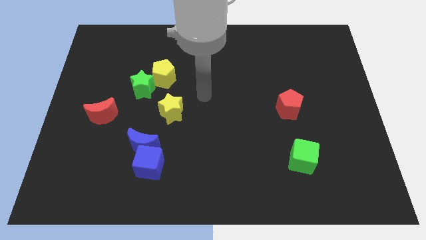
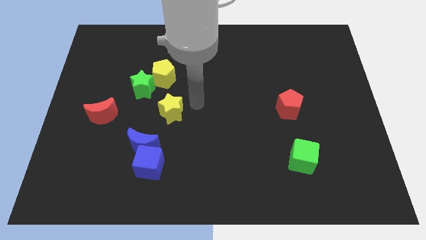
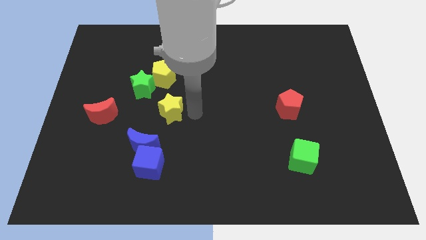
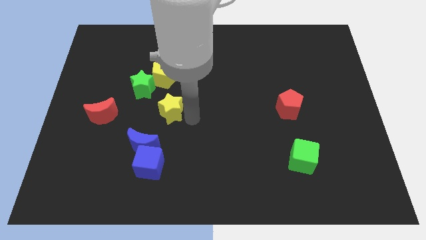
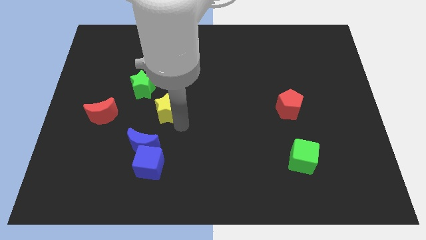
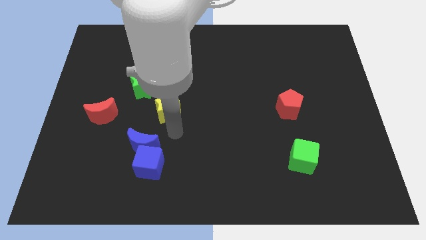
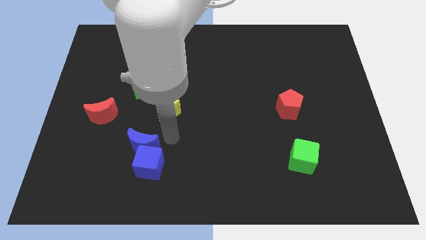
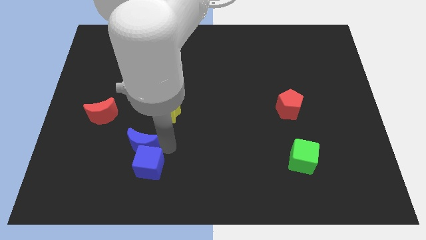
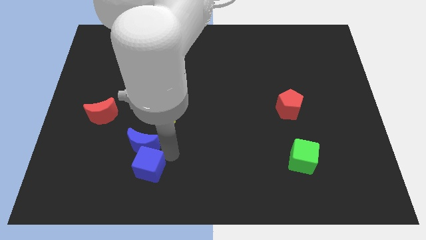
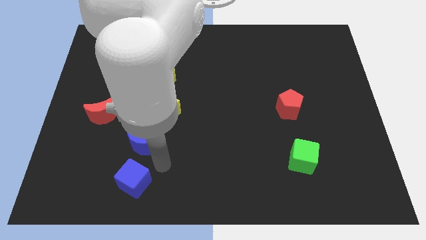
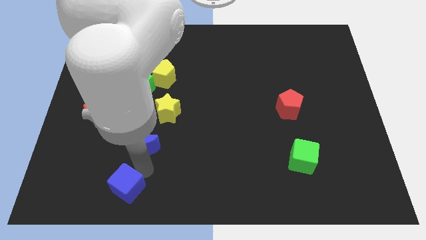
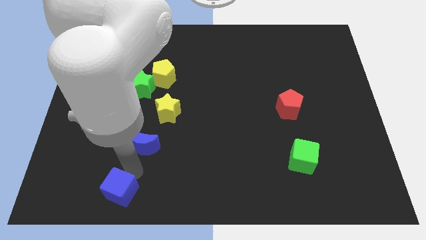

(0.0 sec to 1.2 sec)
move the blue moon away from the blue cube

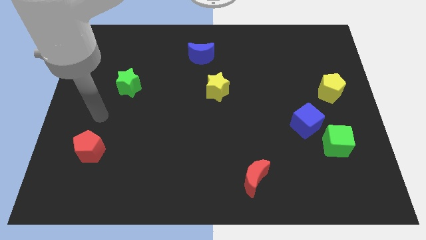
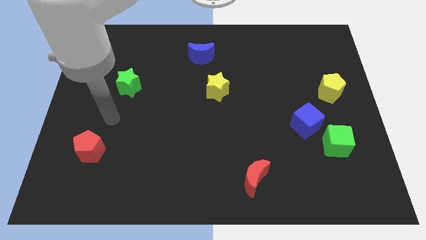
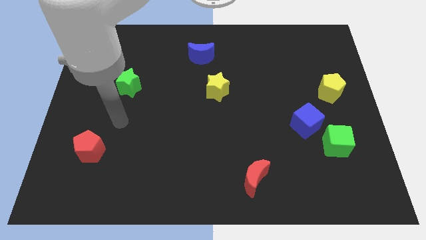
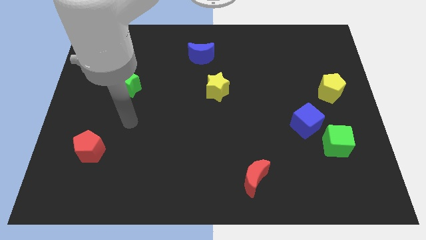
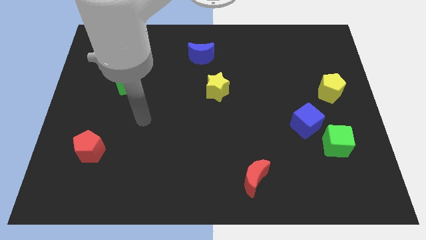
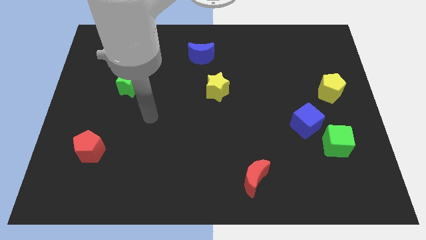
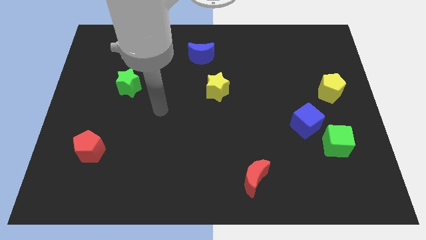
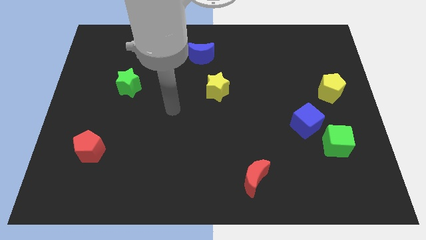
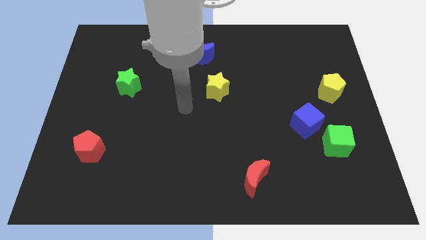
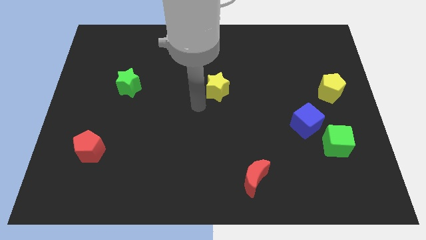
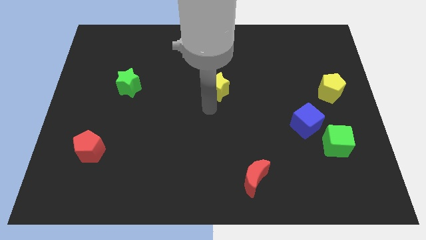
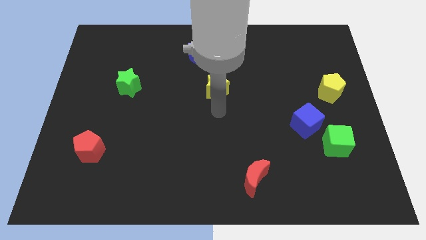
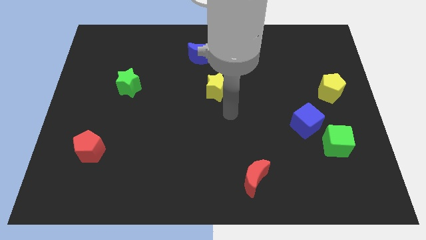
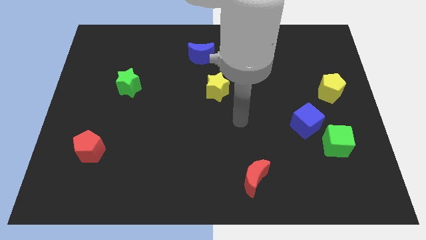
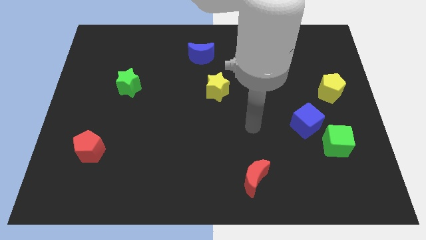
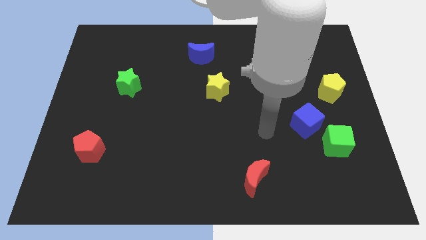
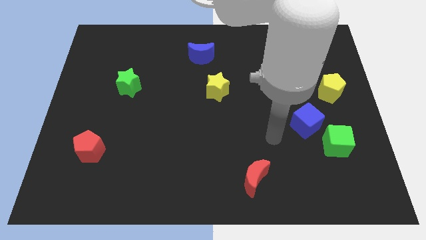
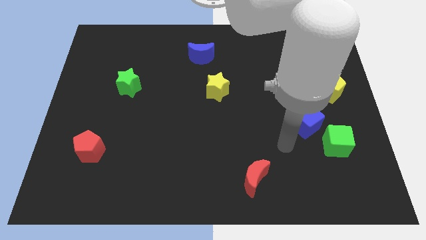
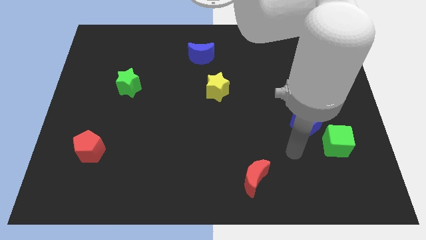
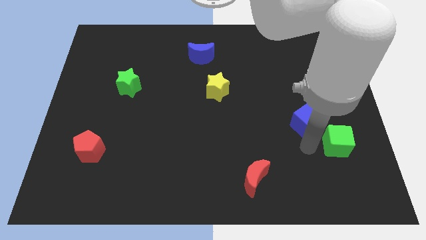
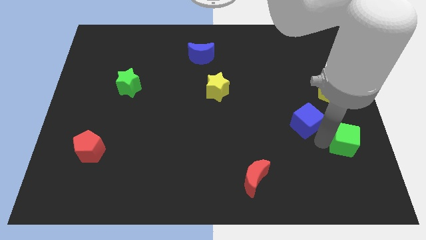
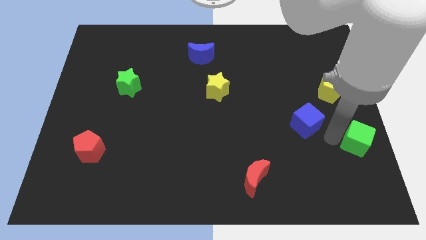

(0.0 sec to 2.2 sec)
separate the blue cube from the green cube

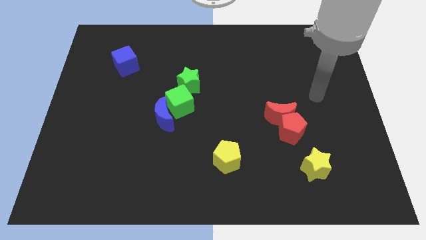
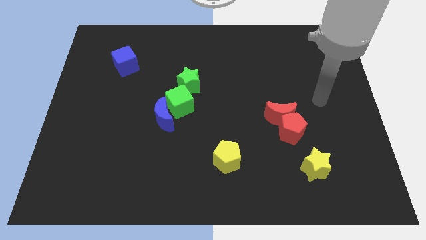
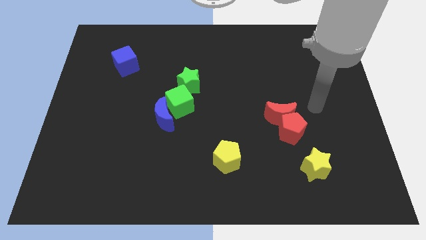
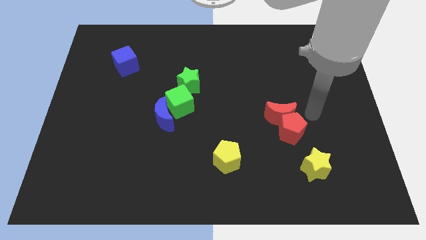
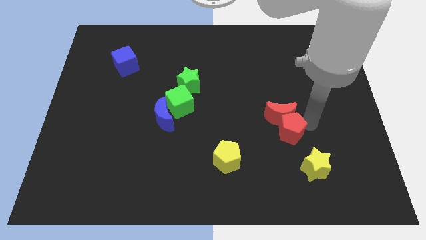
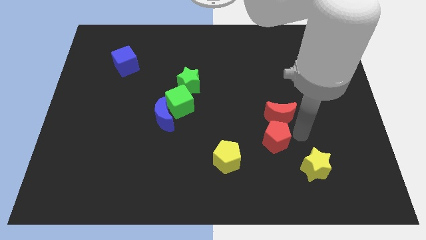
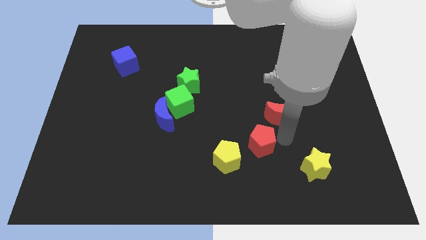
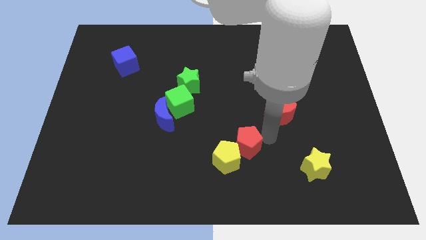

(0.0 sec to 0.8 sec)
move the red moon away from the red pentagon

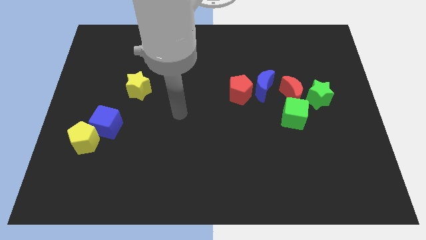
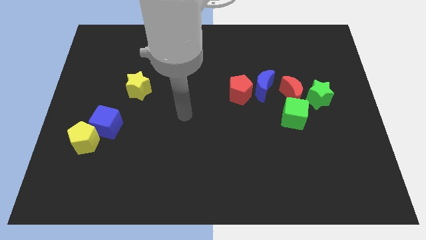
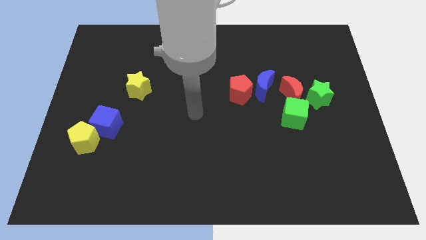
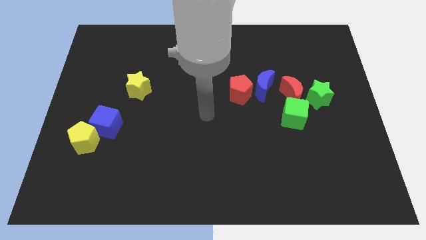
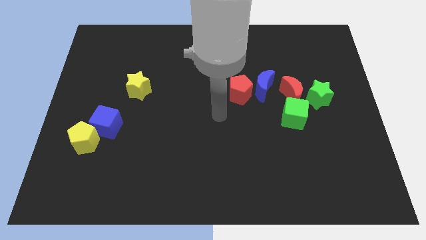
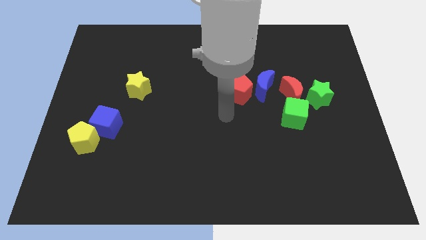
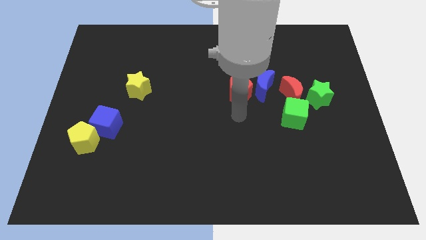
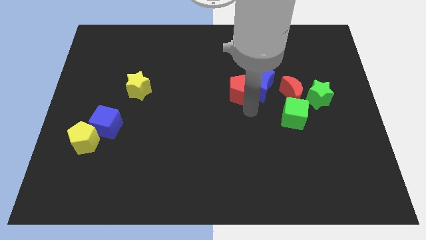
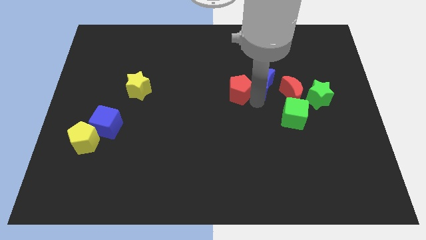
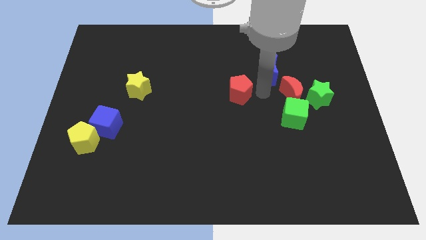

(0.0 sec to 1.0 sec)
separate the red pentagon from the blue moon

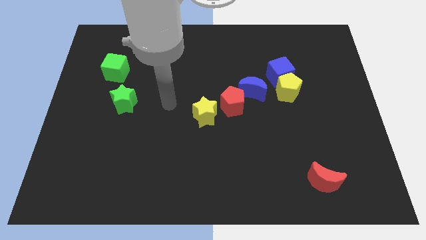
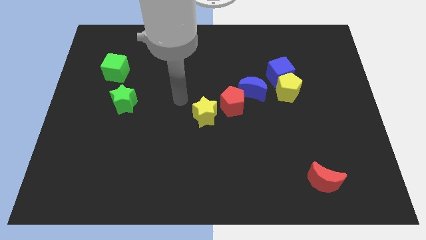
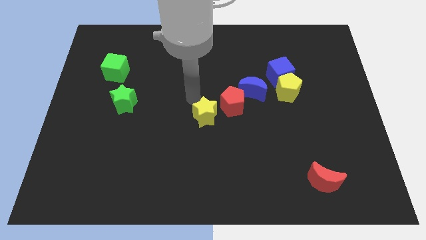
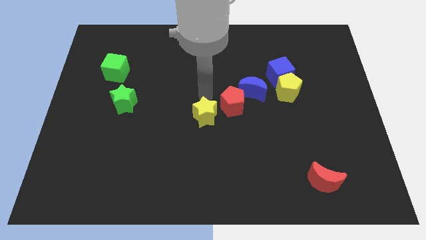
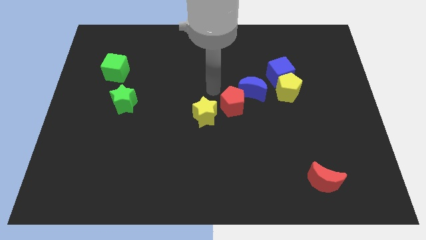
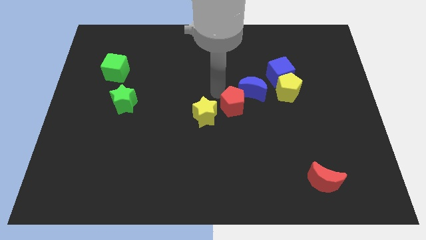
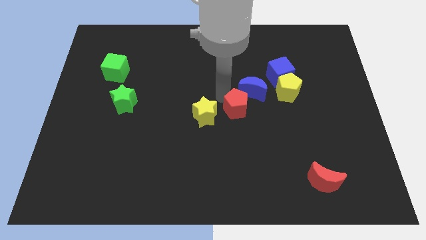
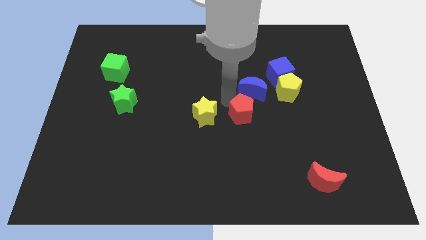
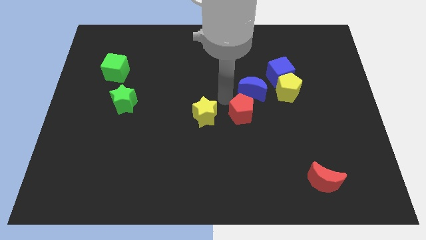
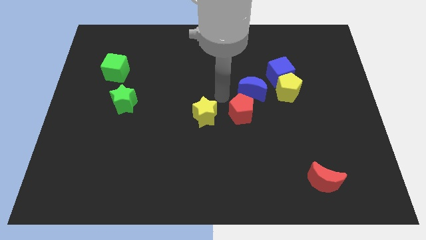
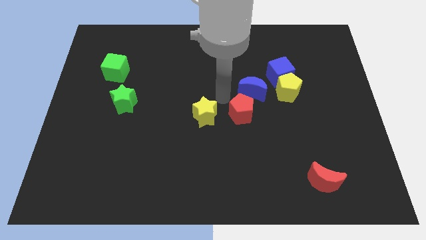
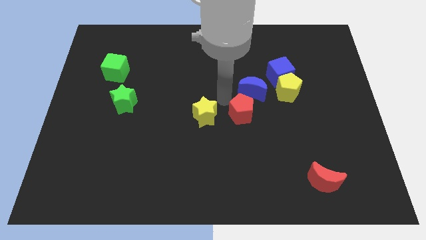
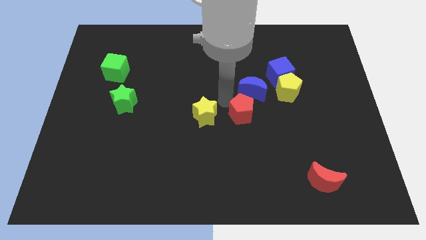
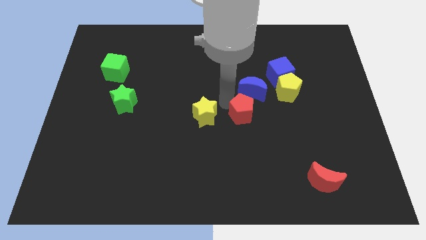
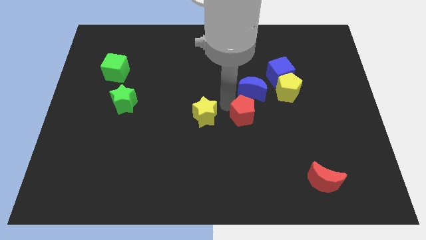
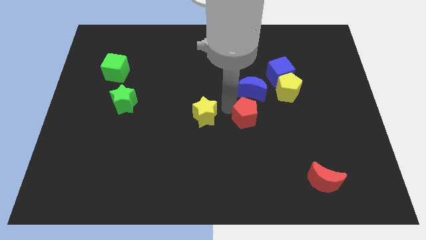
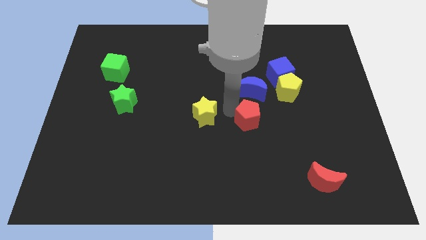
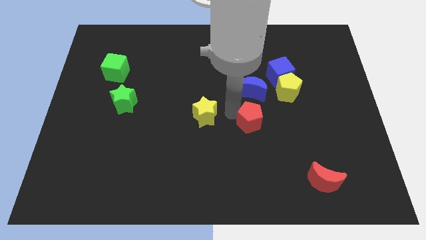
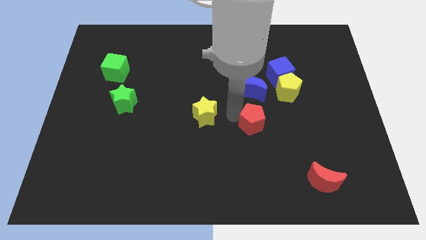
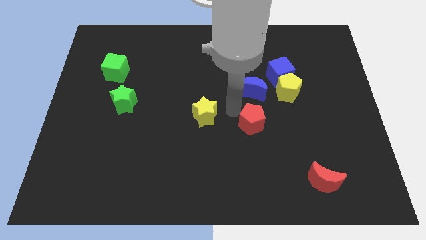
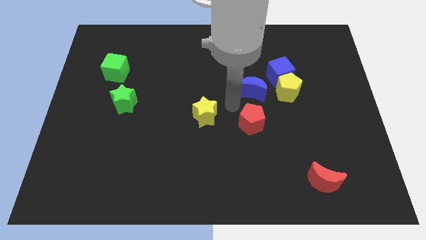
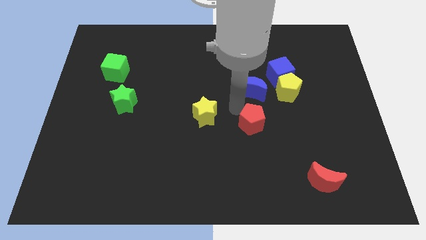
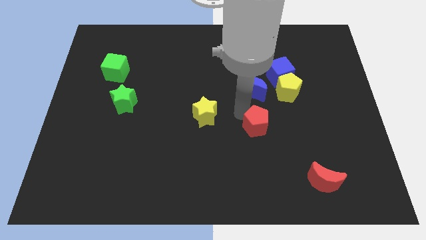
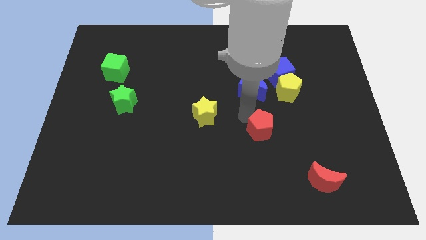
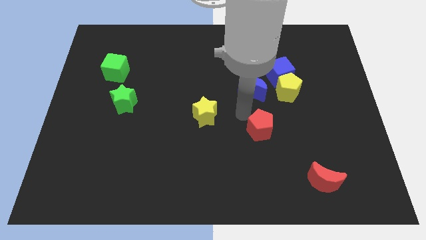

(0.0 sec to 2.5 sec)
pull the red pentagon apart from the blue moon and yellow star

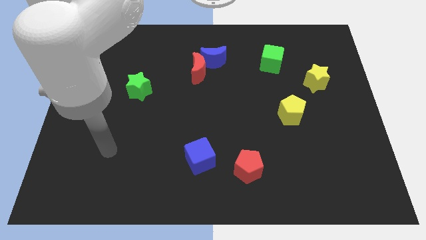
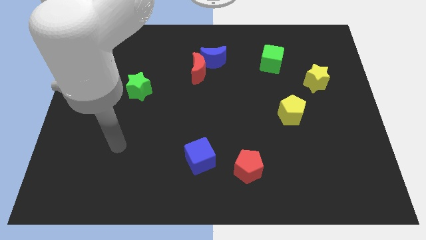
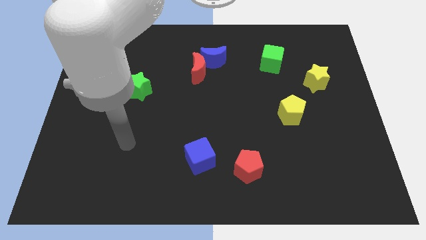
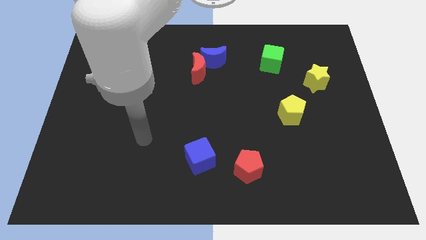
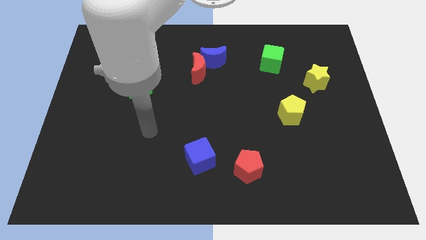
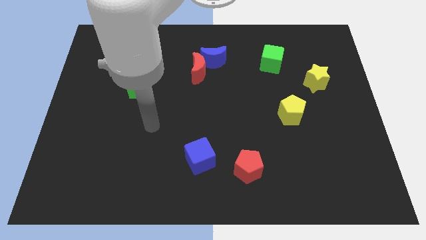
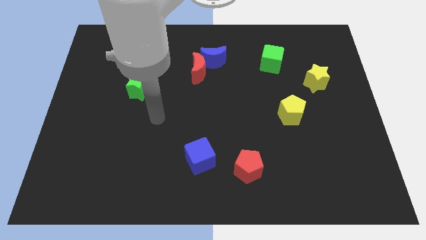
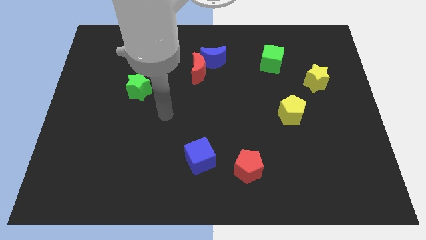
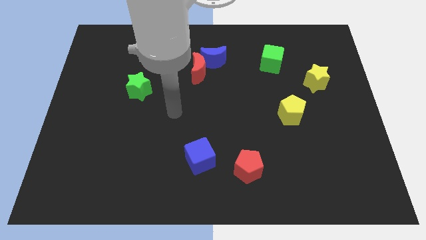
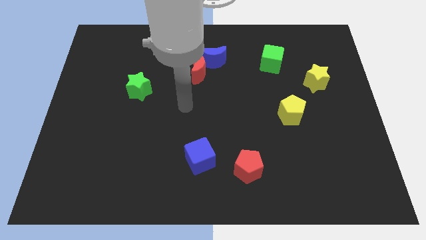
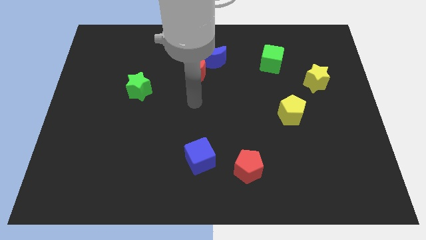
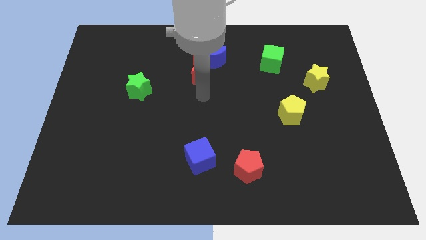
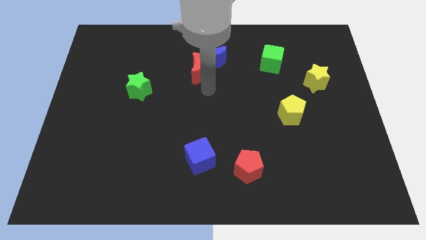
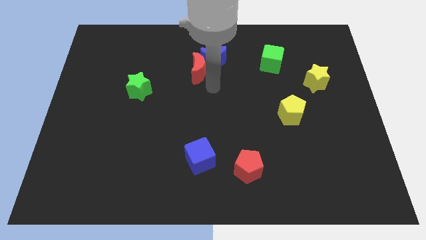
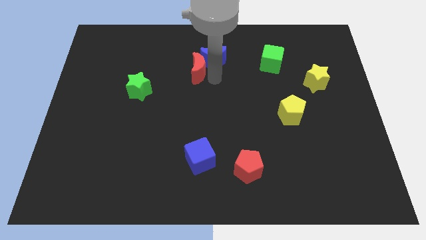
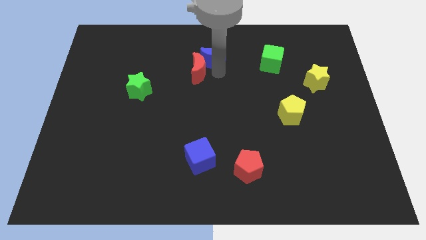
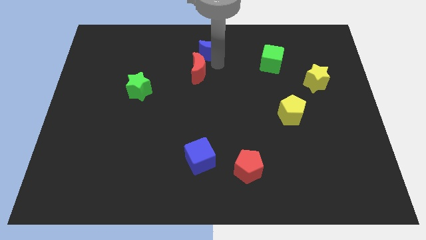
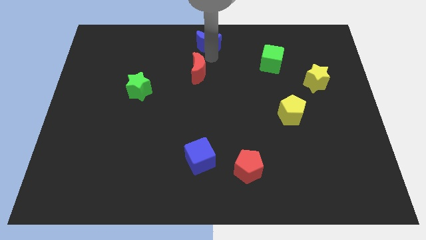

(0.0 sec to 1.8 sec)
move the red moon away from the blue moon

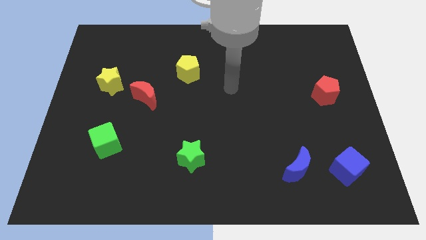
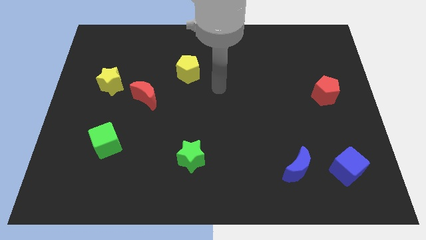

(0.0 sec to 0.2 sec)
pull the red moon apart from the yellow star
